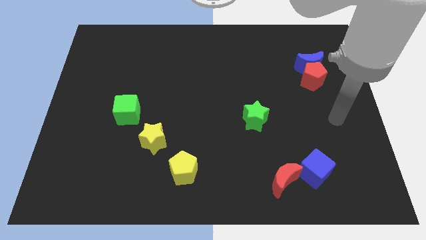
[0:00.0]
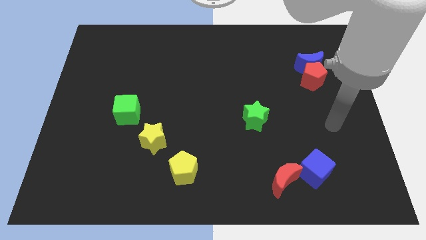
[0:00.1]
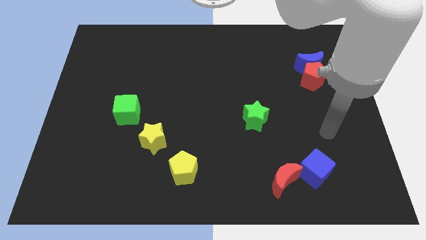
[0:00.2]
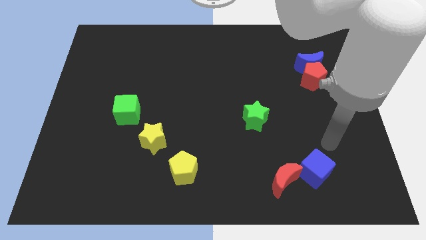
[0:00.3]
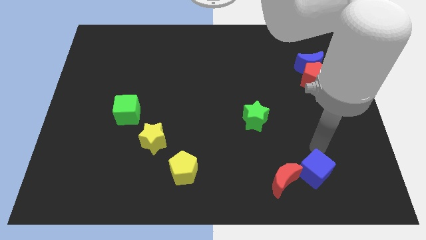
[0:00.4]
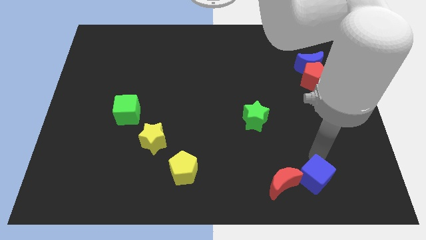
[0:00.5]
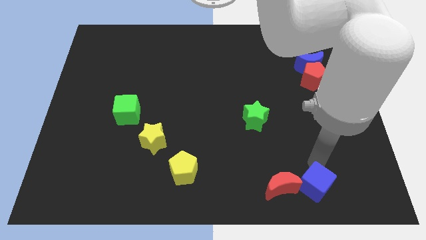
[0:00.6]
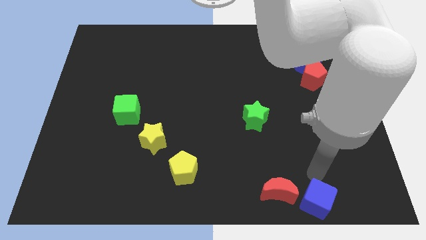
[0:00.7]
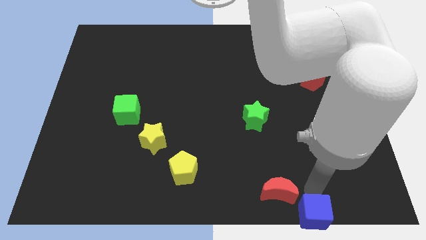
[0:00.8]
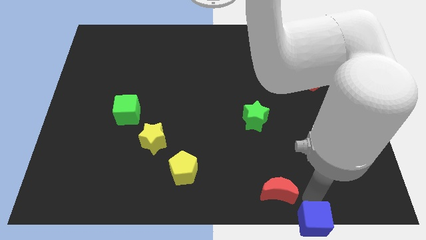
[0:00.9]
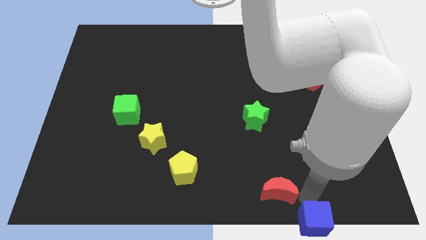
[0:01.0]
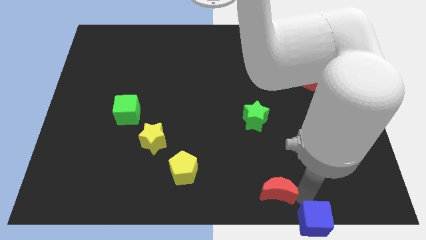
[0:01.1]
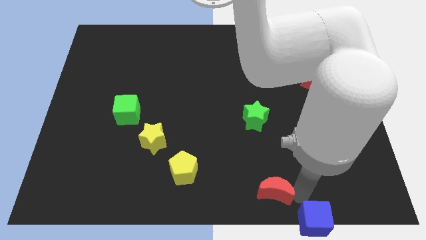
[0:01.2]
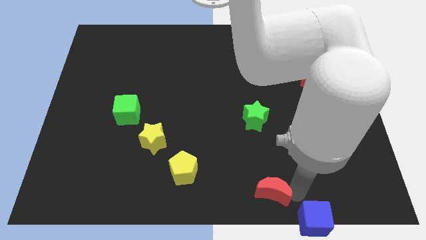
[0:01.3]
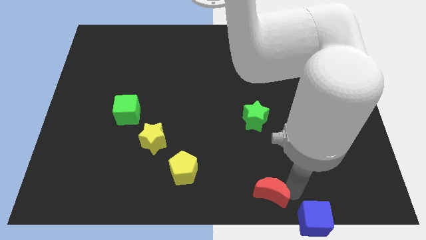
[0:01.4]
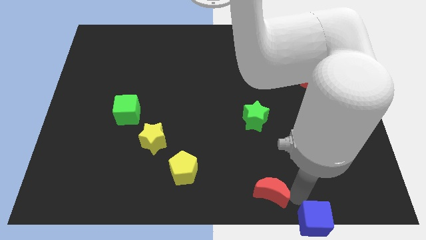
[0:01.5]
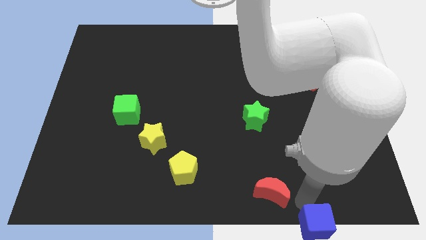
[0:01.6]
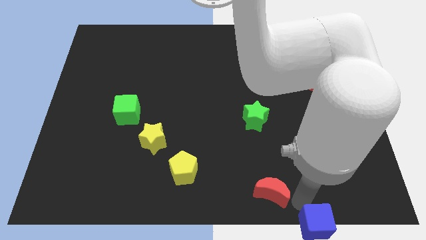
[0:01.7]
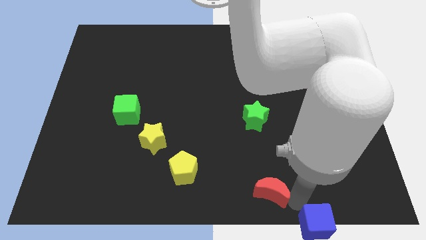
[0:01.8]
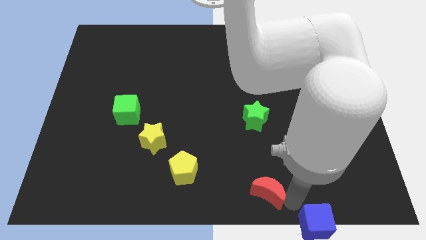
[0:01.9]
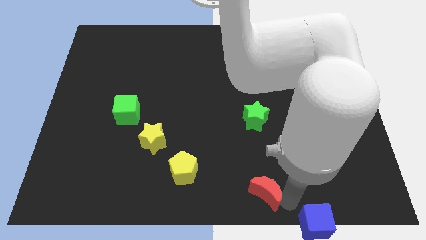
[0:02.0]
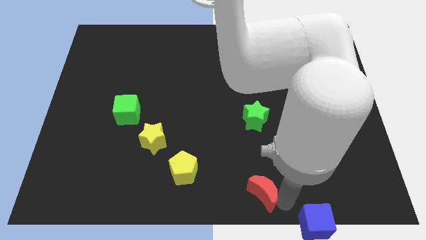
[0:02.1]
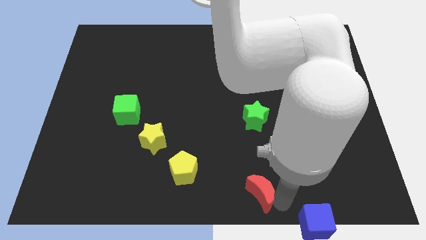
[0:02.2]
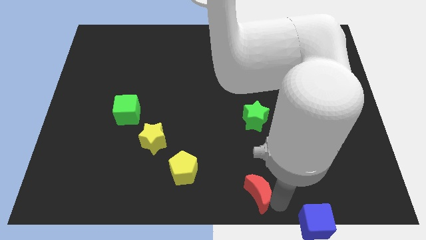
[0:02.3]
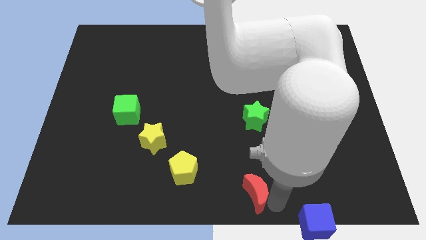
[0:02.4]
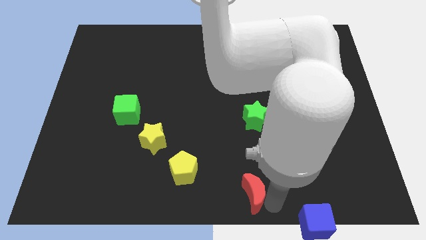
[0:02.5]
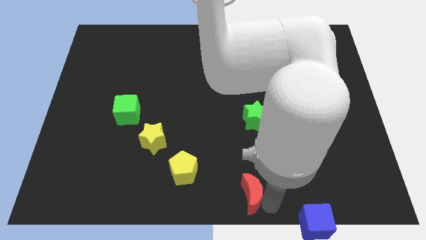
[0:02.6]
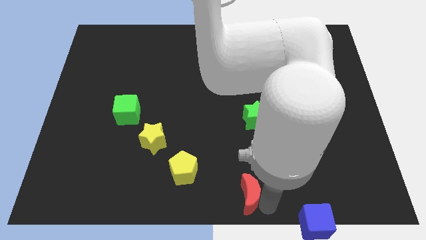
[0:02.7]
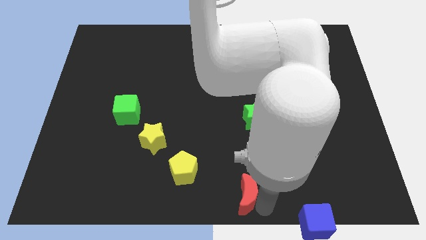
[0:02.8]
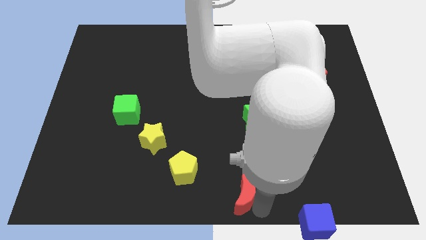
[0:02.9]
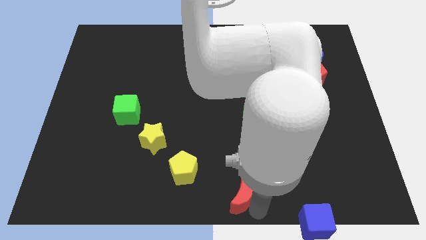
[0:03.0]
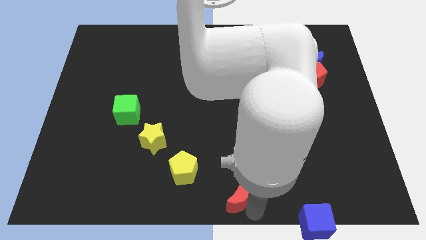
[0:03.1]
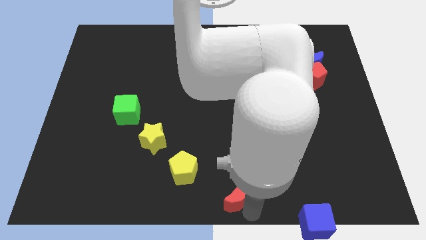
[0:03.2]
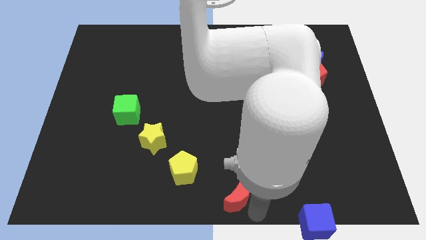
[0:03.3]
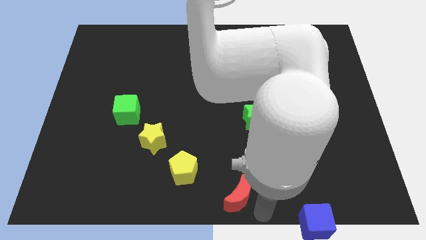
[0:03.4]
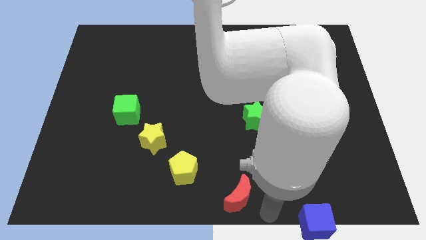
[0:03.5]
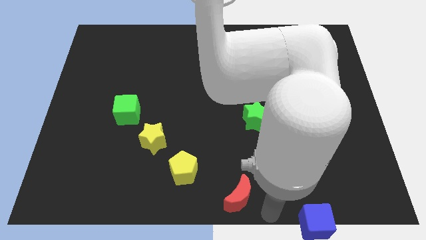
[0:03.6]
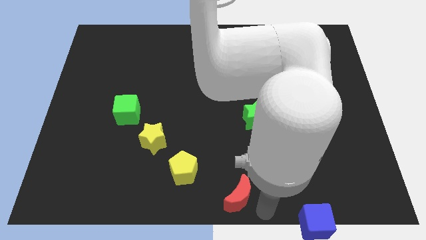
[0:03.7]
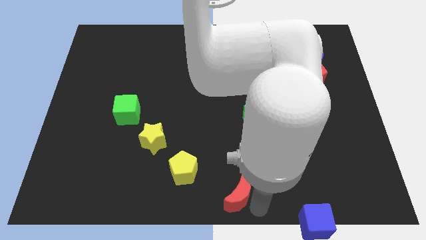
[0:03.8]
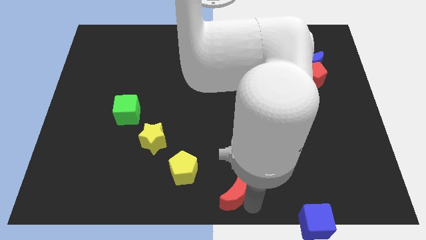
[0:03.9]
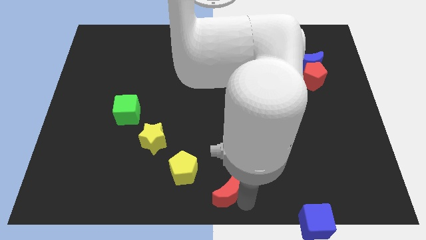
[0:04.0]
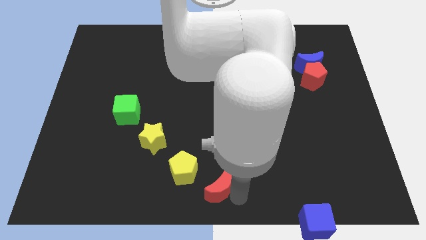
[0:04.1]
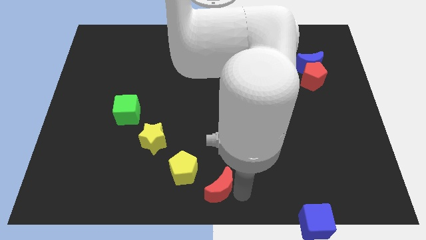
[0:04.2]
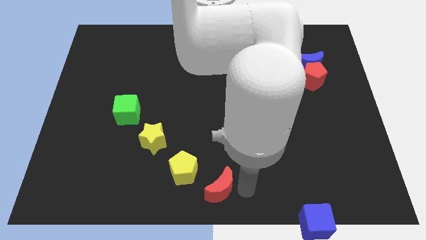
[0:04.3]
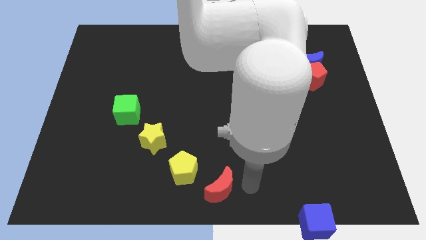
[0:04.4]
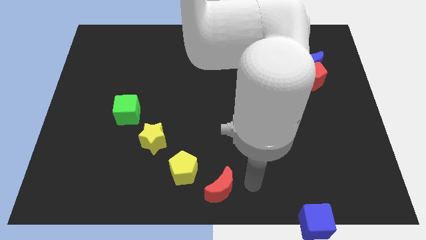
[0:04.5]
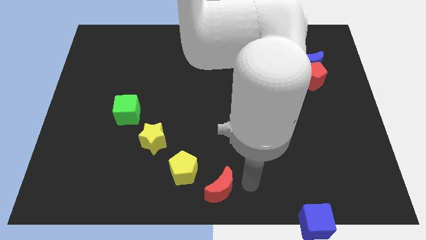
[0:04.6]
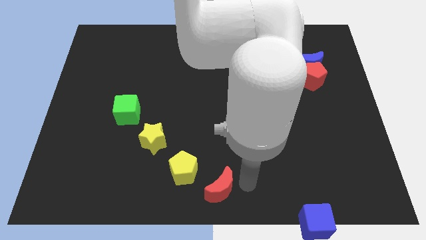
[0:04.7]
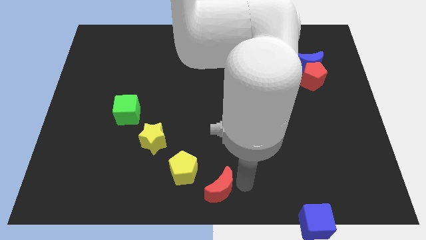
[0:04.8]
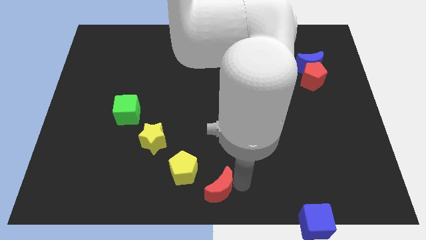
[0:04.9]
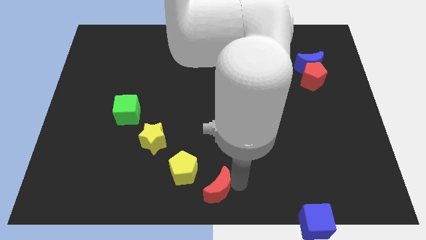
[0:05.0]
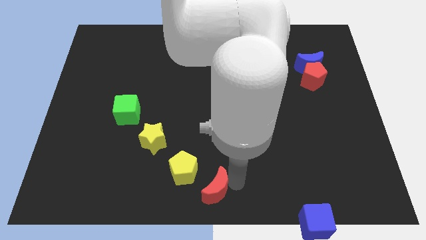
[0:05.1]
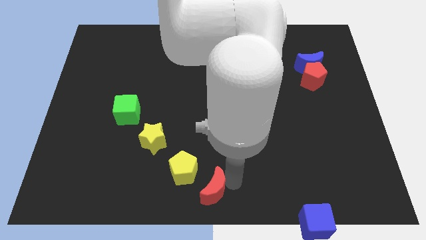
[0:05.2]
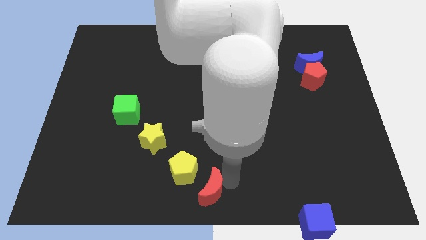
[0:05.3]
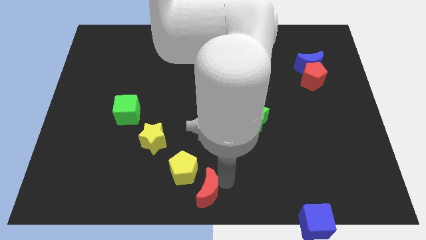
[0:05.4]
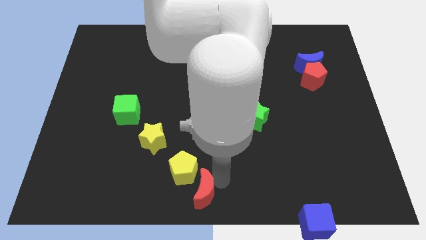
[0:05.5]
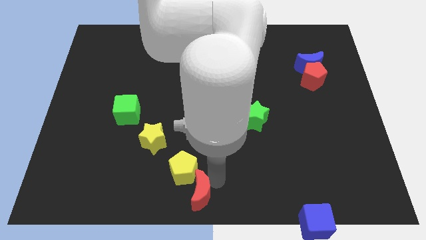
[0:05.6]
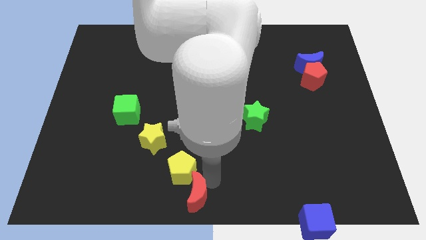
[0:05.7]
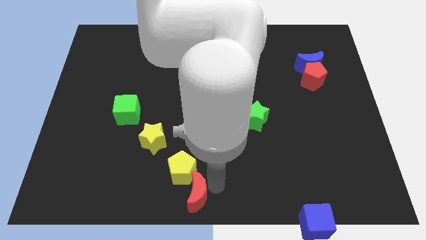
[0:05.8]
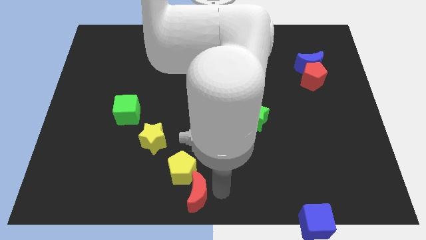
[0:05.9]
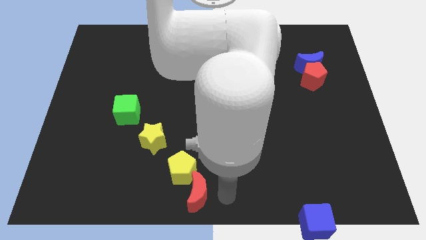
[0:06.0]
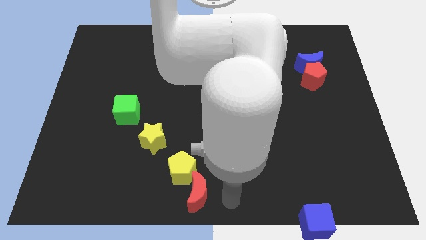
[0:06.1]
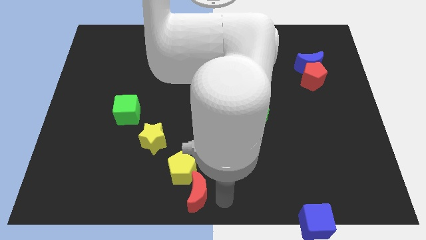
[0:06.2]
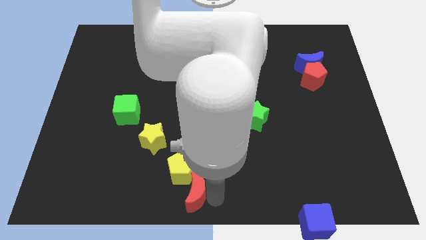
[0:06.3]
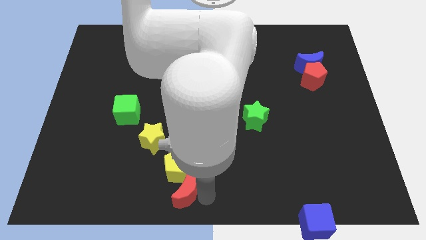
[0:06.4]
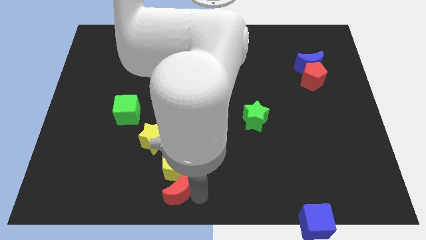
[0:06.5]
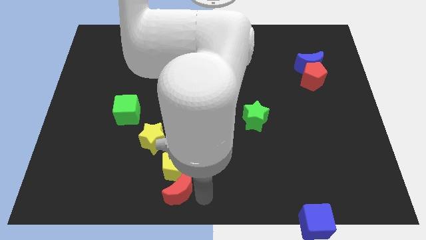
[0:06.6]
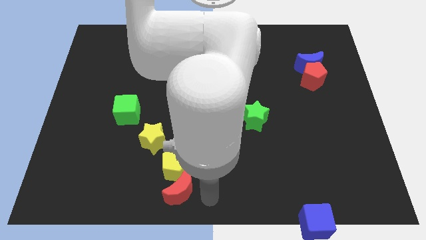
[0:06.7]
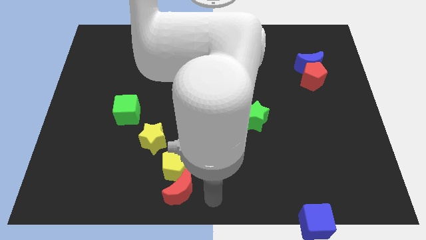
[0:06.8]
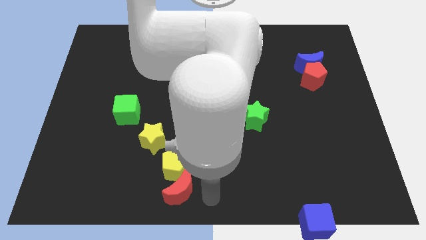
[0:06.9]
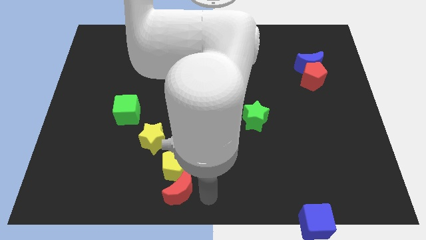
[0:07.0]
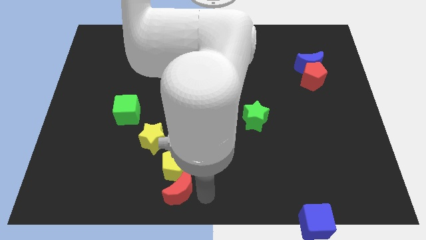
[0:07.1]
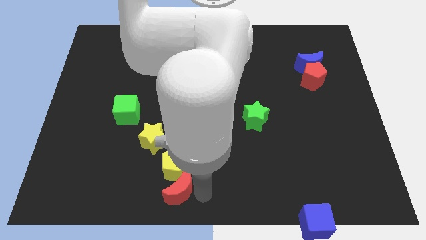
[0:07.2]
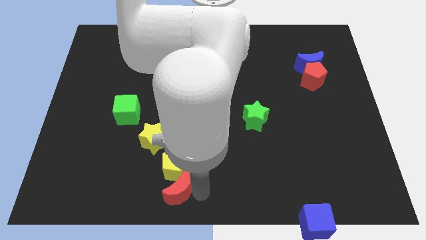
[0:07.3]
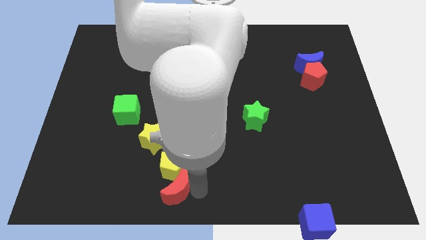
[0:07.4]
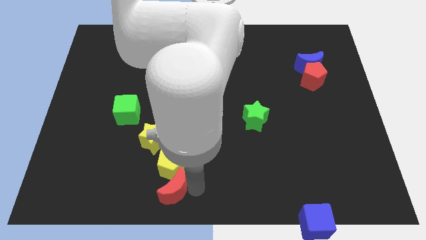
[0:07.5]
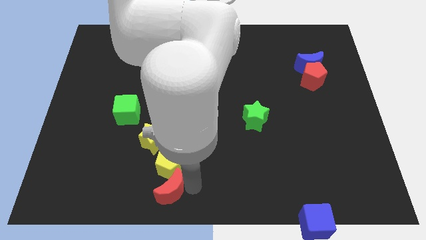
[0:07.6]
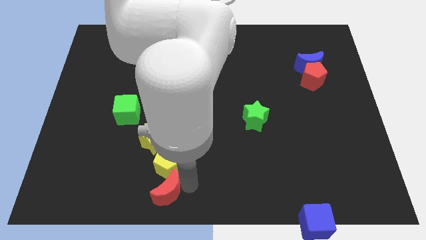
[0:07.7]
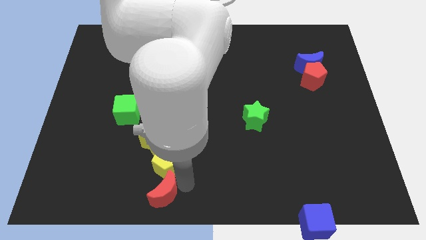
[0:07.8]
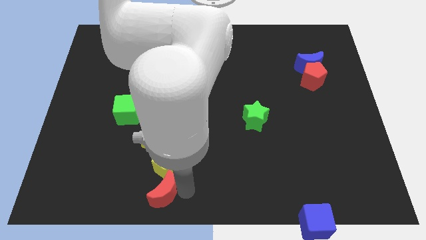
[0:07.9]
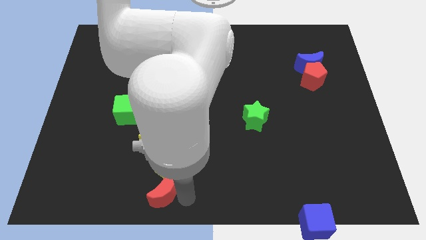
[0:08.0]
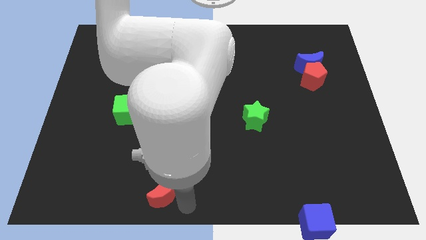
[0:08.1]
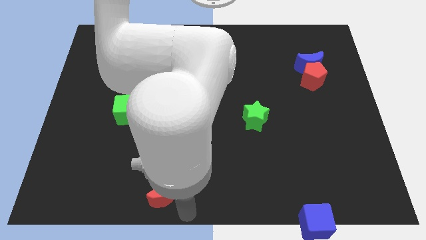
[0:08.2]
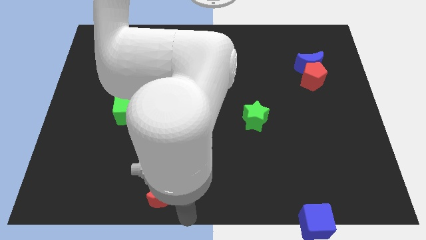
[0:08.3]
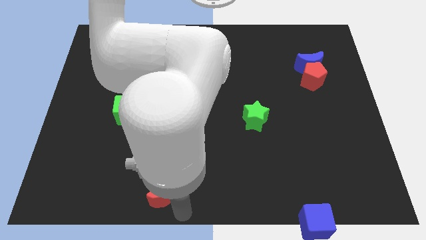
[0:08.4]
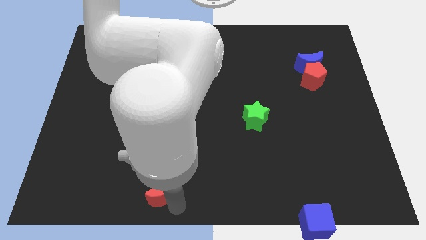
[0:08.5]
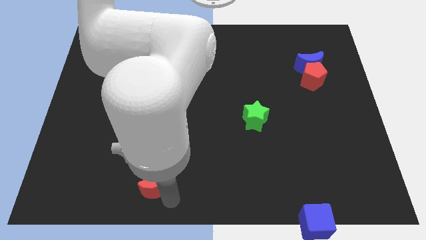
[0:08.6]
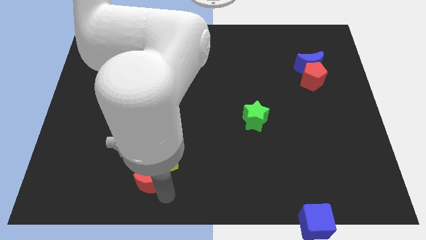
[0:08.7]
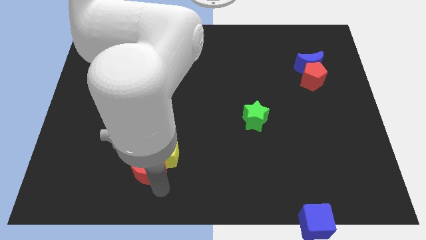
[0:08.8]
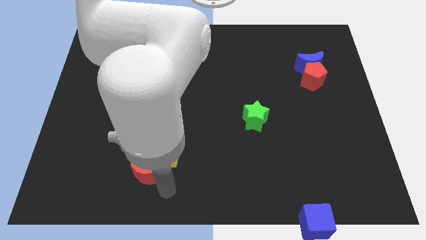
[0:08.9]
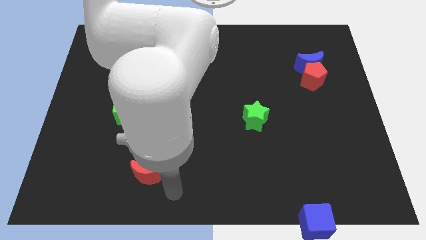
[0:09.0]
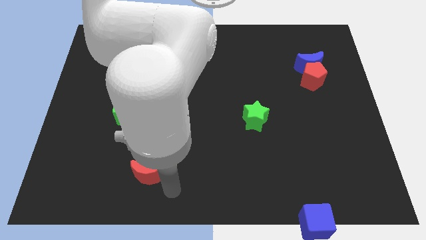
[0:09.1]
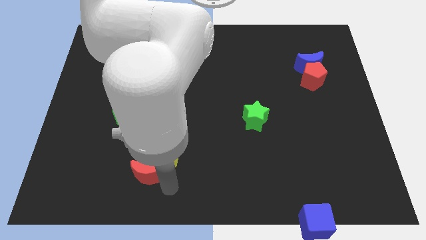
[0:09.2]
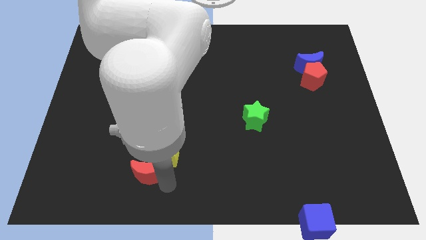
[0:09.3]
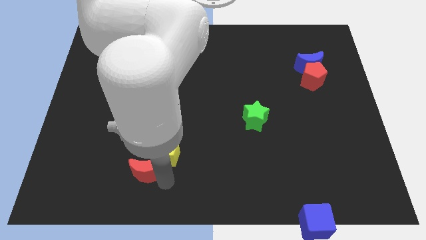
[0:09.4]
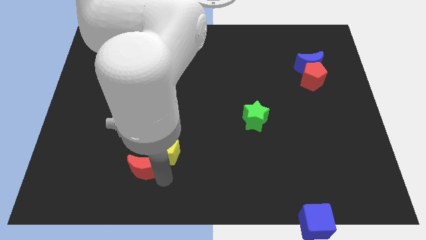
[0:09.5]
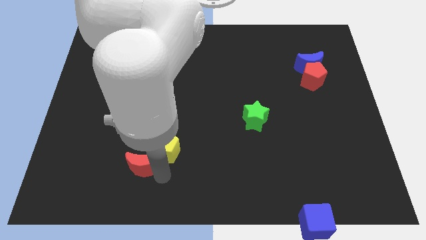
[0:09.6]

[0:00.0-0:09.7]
put the red moon to the bottom left side of the yellow star
